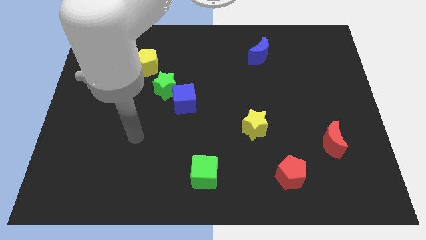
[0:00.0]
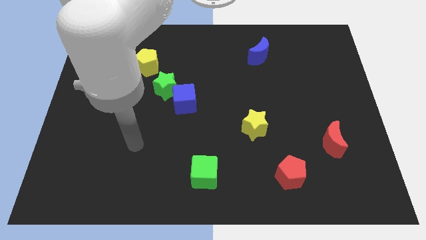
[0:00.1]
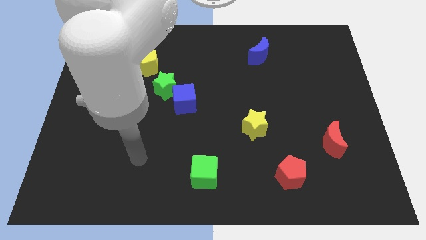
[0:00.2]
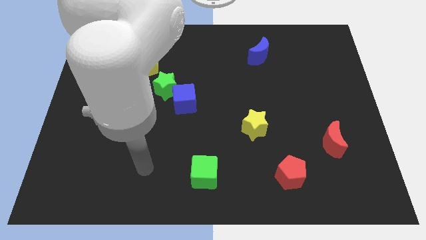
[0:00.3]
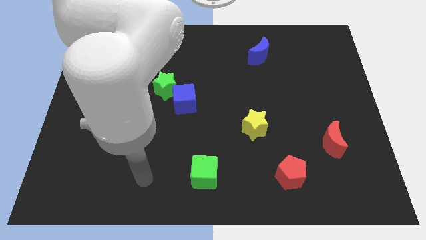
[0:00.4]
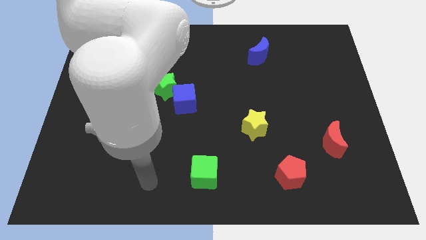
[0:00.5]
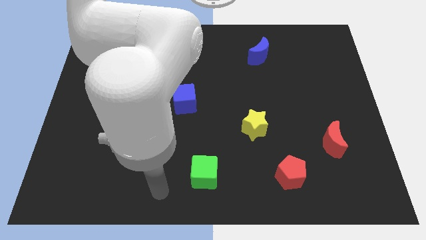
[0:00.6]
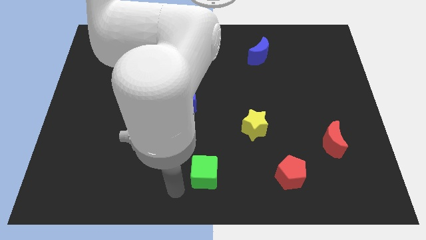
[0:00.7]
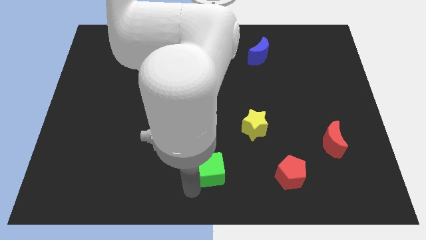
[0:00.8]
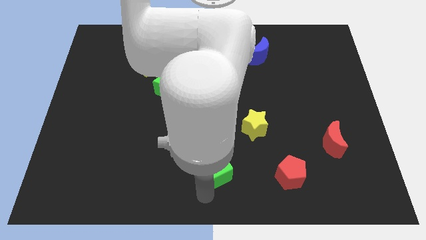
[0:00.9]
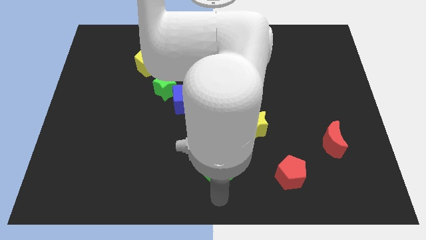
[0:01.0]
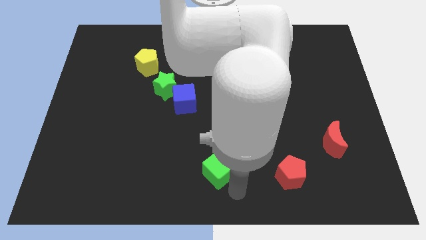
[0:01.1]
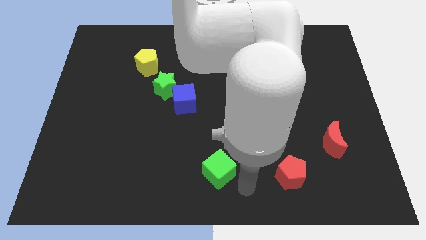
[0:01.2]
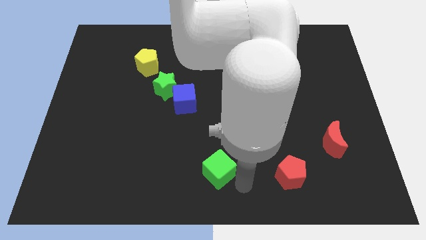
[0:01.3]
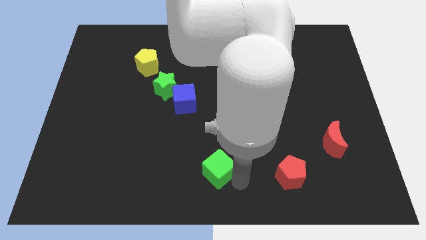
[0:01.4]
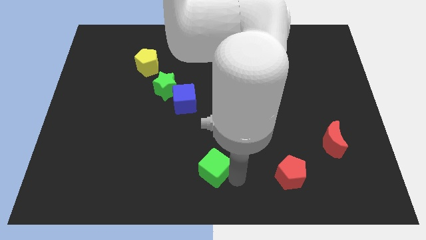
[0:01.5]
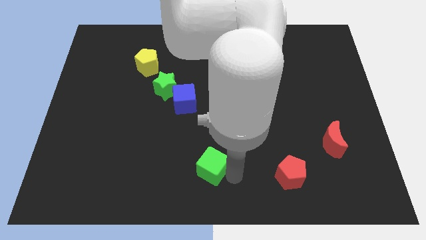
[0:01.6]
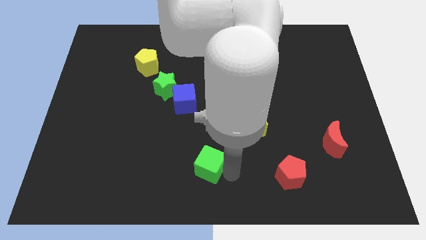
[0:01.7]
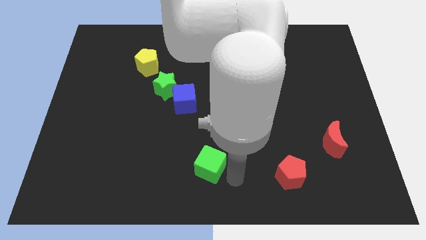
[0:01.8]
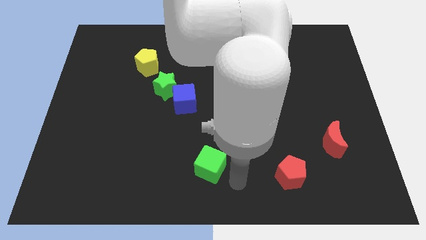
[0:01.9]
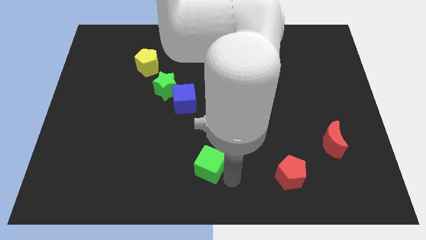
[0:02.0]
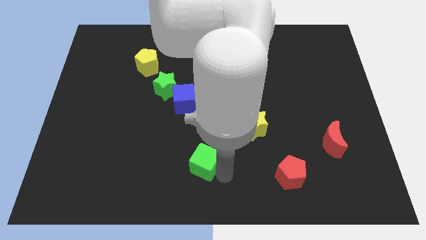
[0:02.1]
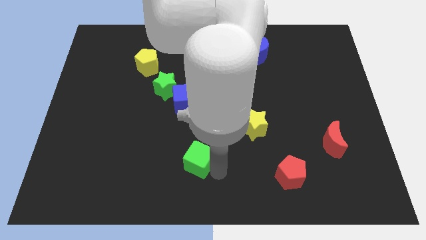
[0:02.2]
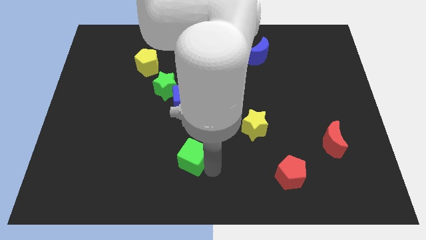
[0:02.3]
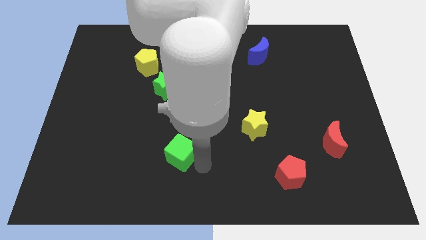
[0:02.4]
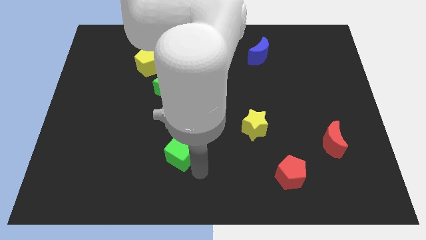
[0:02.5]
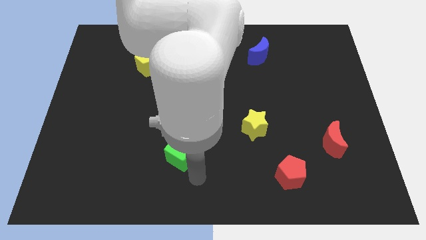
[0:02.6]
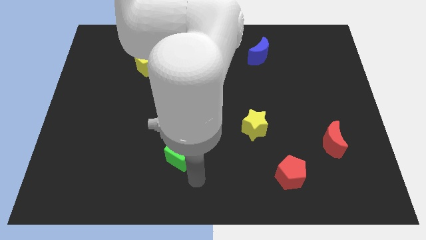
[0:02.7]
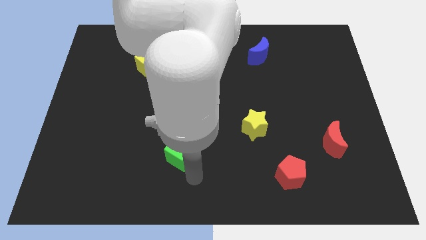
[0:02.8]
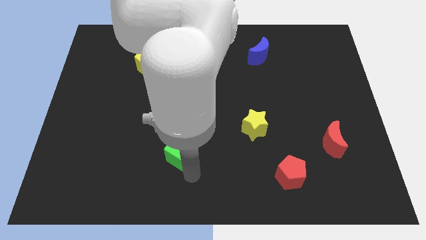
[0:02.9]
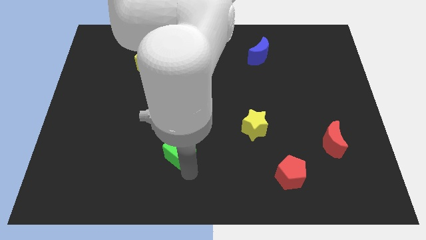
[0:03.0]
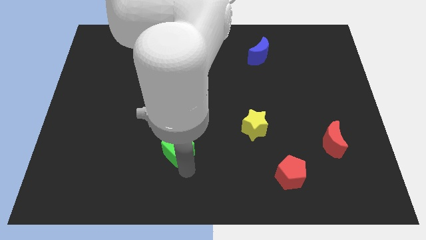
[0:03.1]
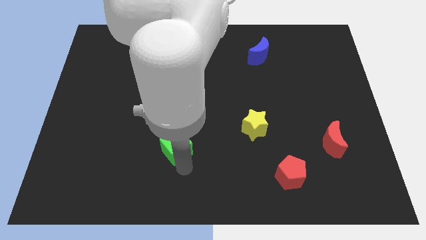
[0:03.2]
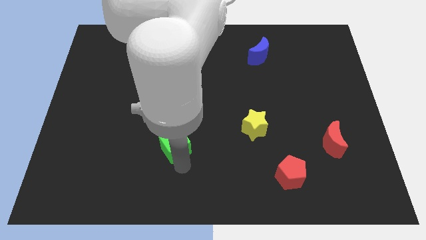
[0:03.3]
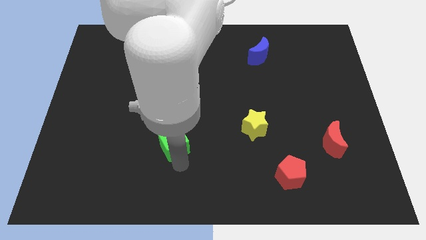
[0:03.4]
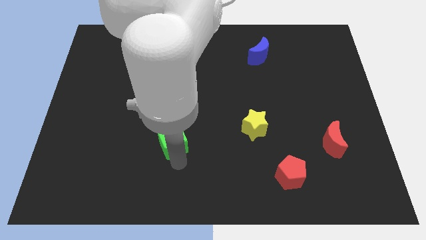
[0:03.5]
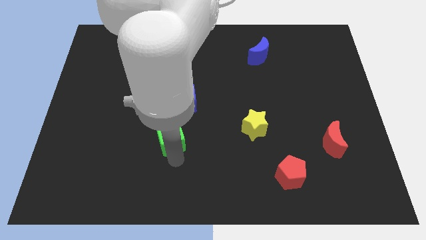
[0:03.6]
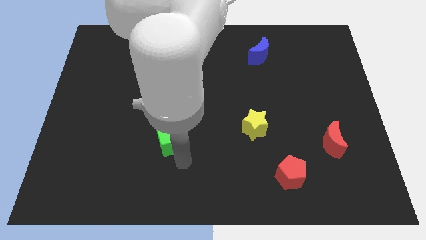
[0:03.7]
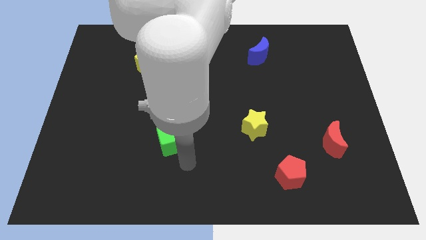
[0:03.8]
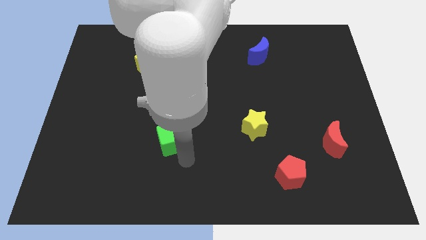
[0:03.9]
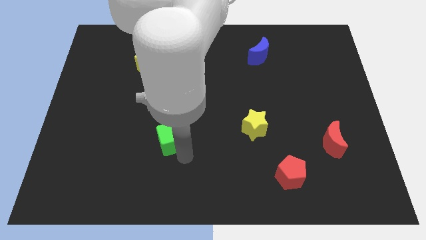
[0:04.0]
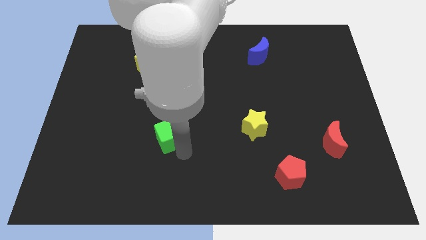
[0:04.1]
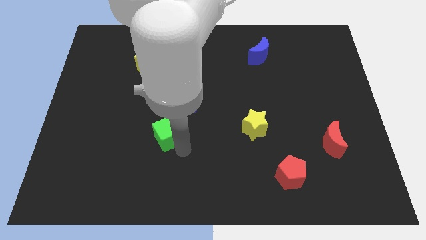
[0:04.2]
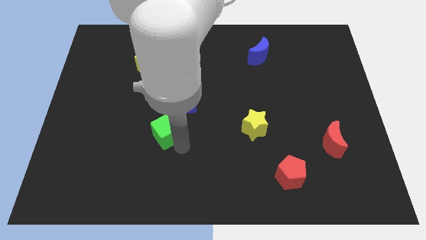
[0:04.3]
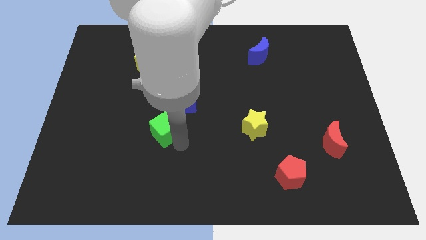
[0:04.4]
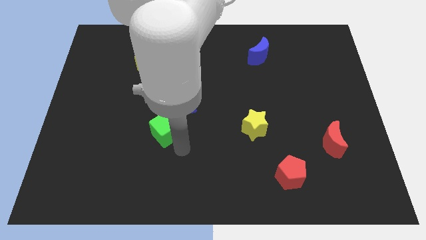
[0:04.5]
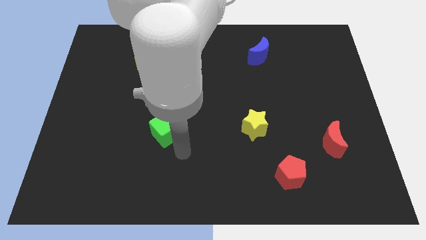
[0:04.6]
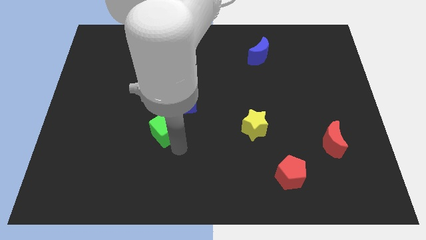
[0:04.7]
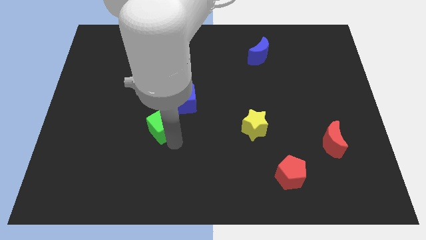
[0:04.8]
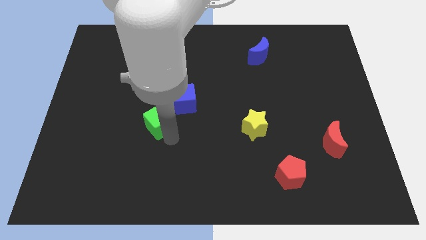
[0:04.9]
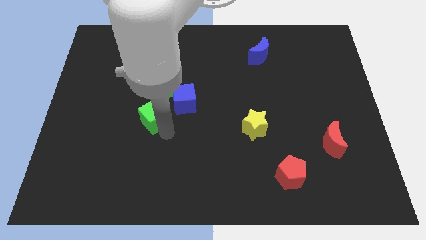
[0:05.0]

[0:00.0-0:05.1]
put the green cube to the bottom left of the green star

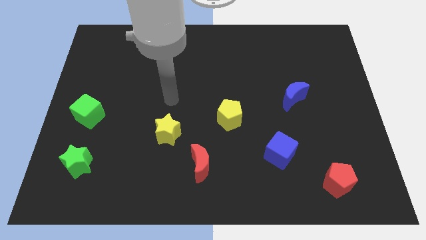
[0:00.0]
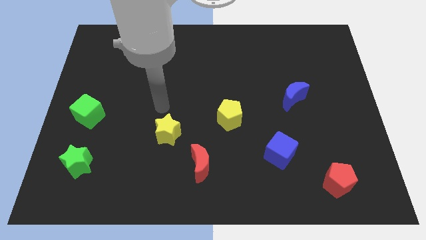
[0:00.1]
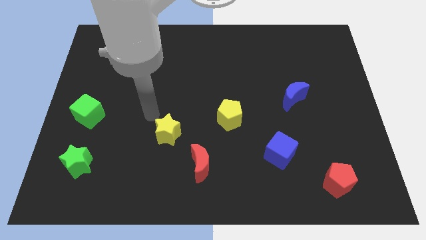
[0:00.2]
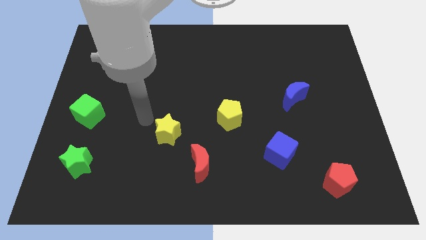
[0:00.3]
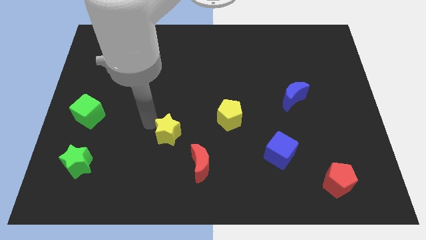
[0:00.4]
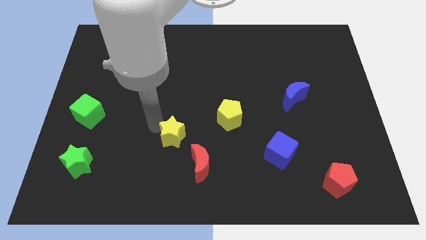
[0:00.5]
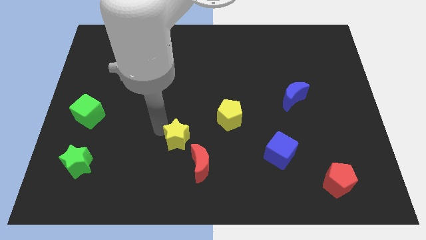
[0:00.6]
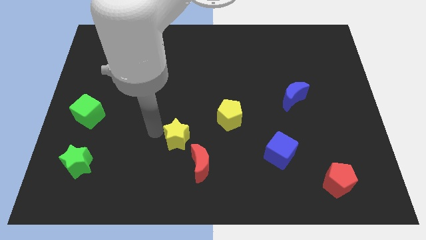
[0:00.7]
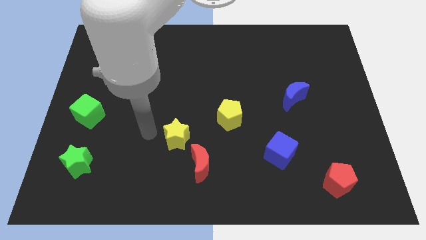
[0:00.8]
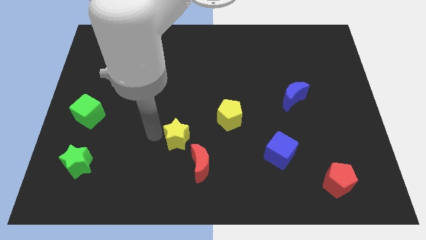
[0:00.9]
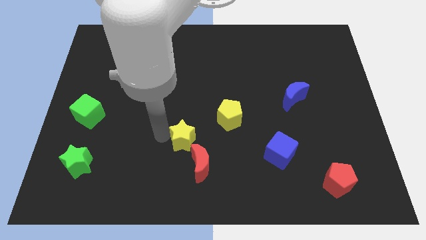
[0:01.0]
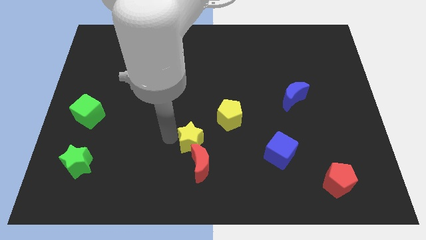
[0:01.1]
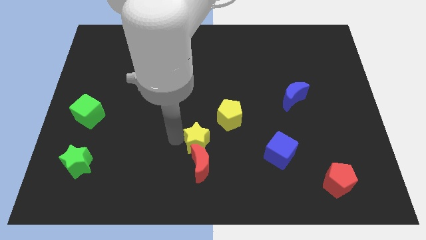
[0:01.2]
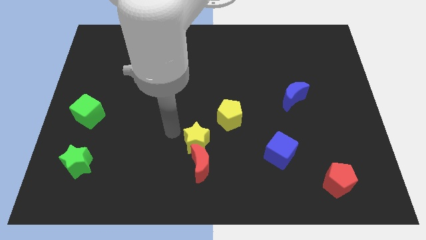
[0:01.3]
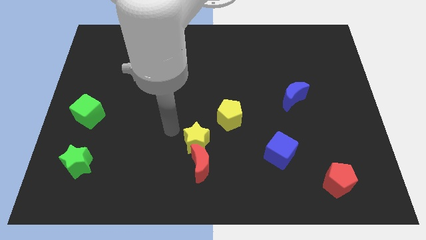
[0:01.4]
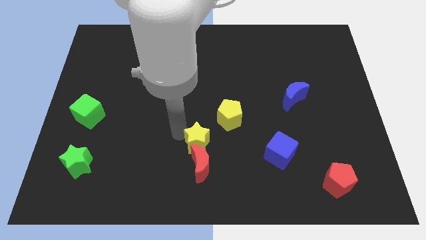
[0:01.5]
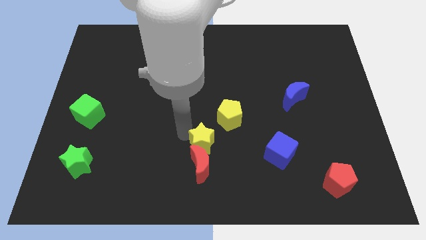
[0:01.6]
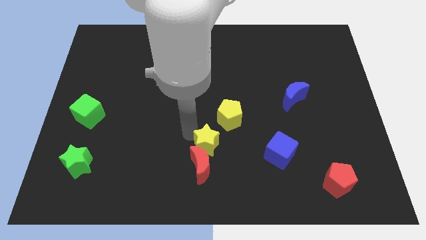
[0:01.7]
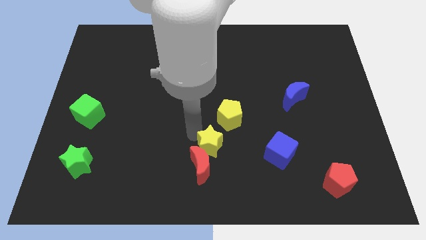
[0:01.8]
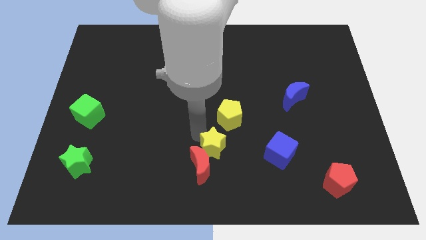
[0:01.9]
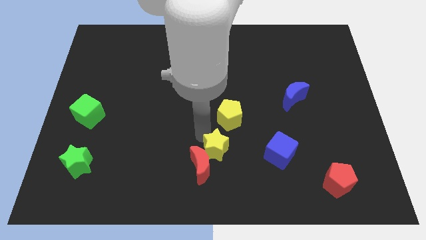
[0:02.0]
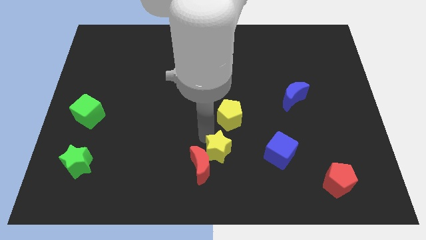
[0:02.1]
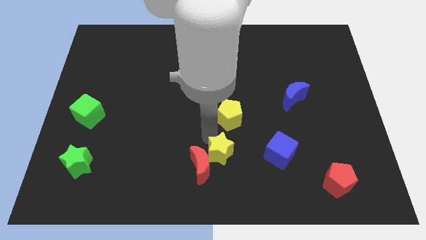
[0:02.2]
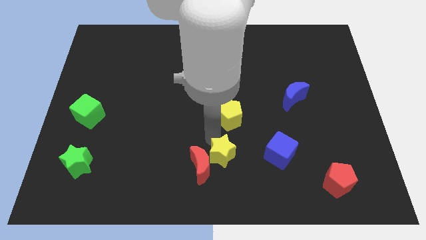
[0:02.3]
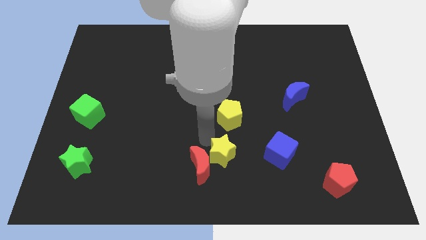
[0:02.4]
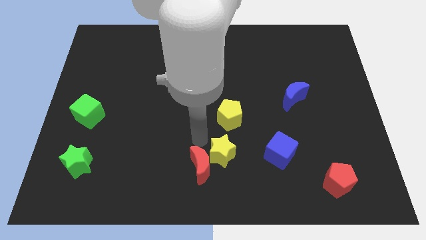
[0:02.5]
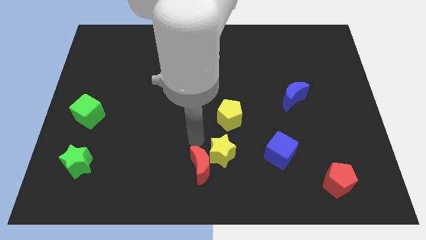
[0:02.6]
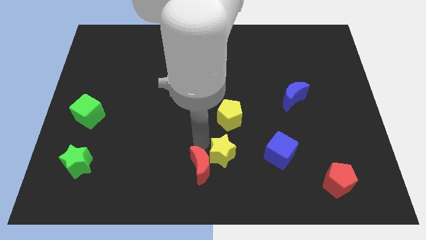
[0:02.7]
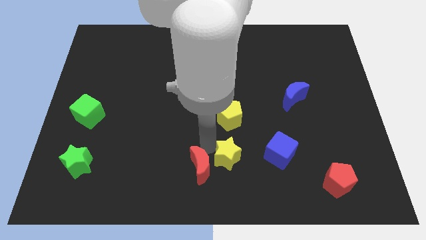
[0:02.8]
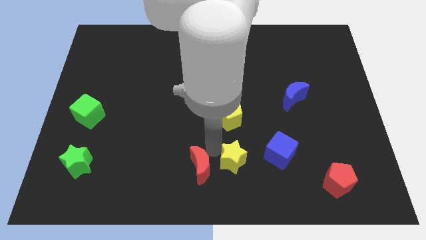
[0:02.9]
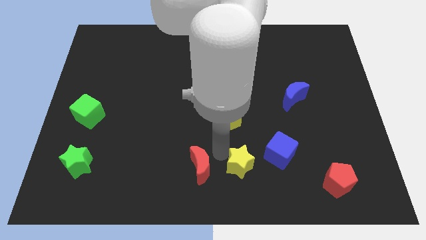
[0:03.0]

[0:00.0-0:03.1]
push the yellow star diagonally down and to the left of the blue cube
